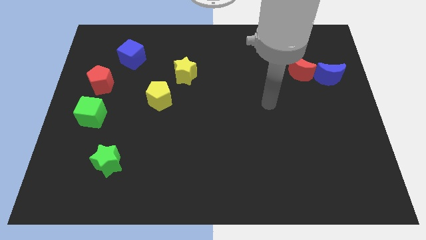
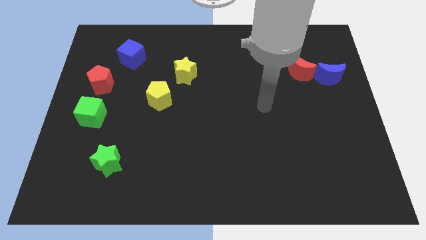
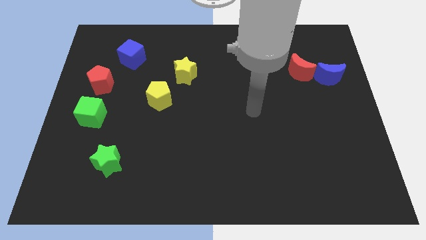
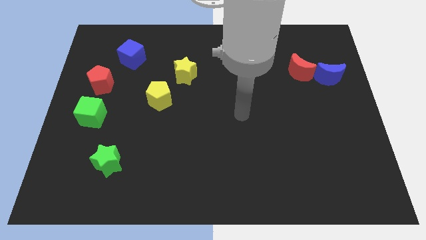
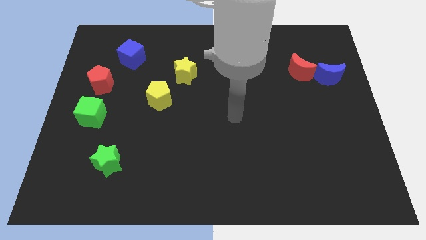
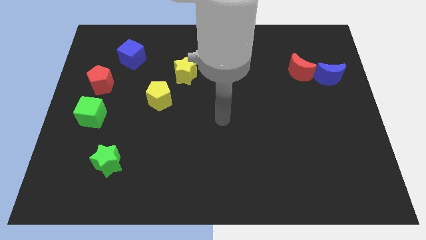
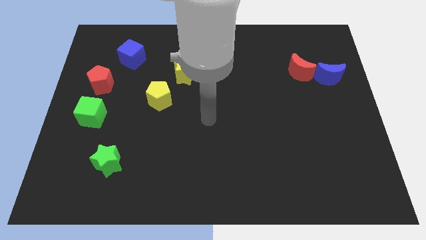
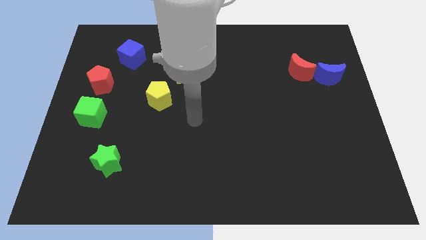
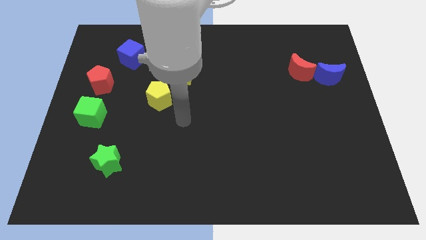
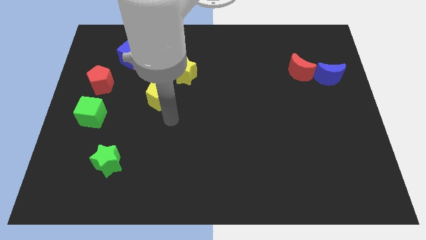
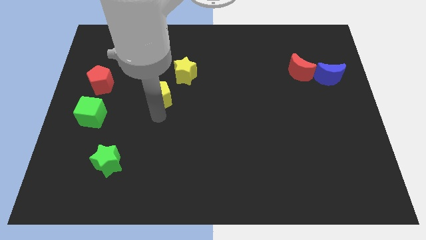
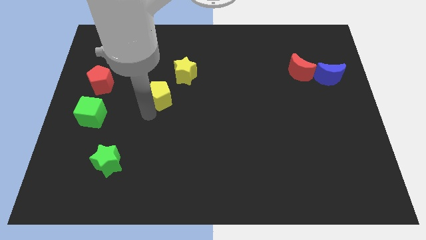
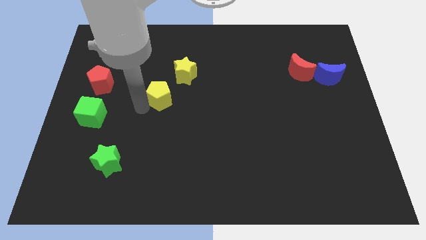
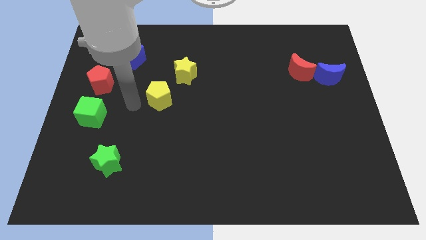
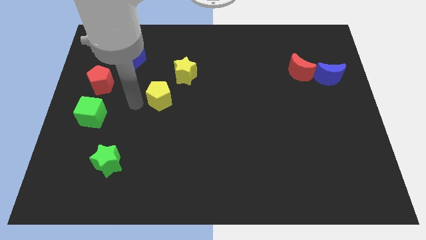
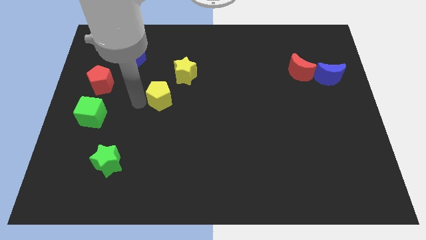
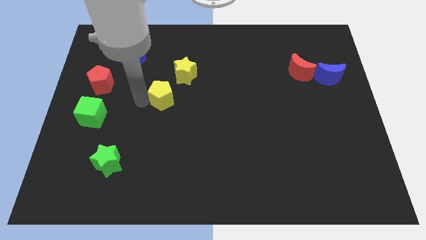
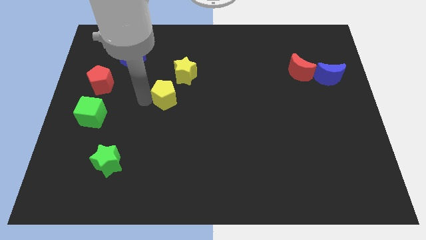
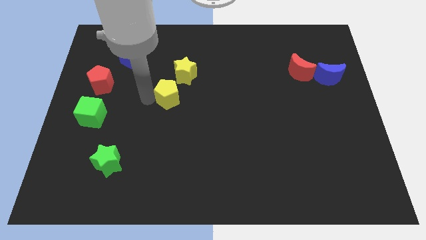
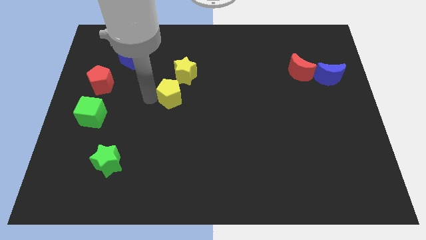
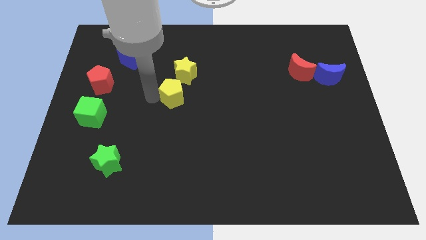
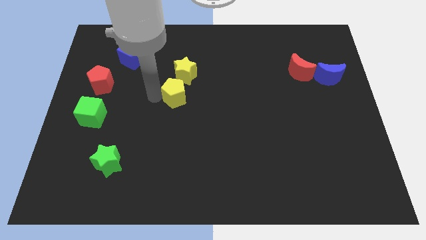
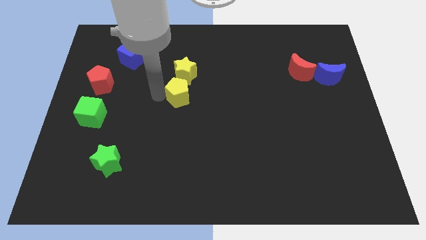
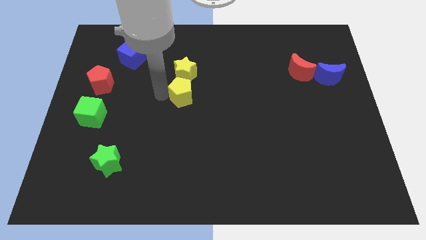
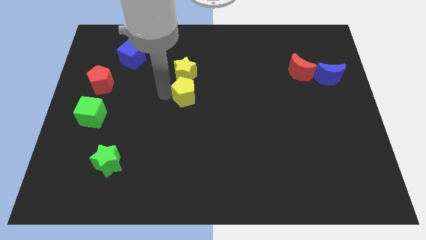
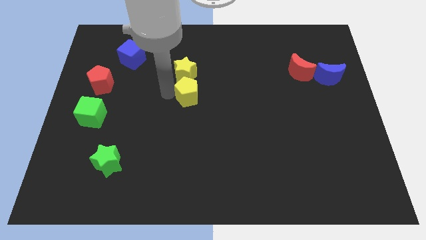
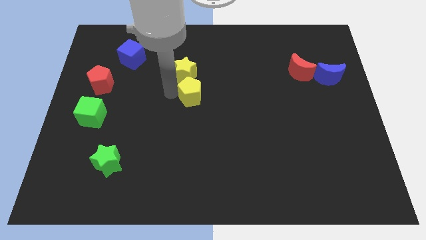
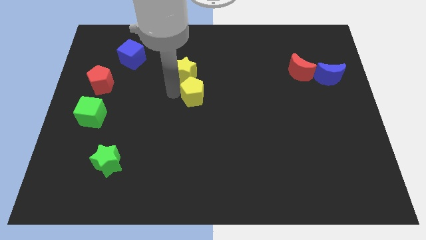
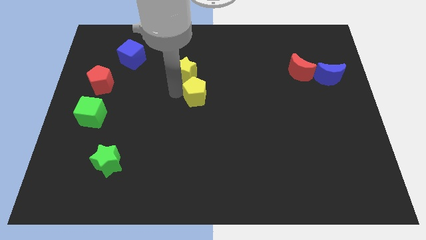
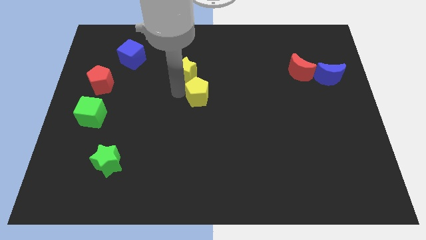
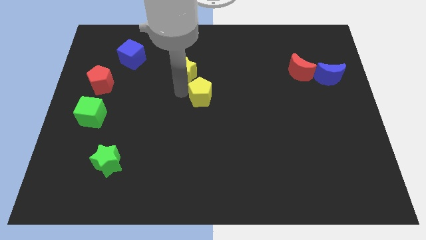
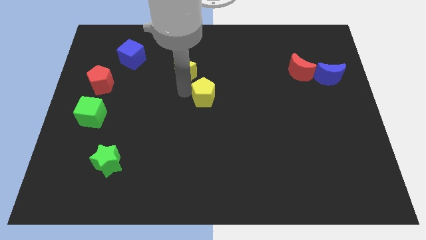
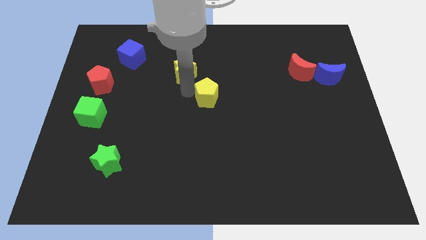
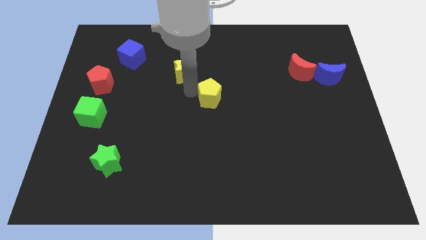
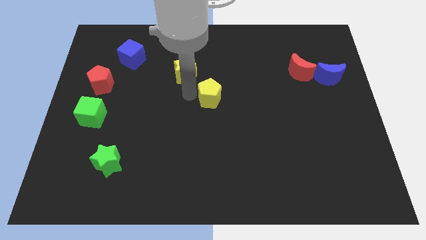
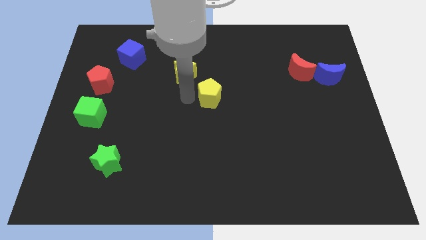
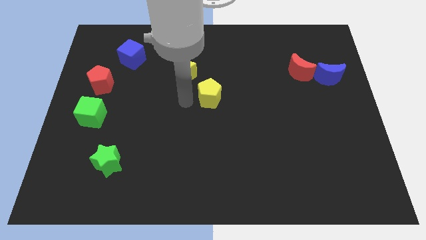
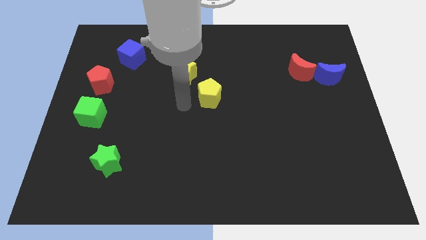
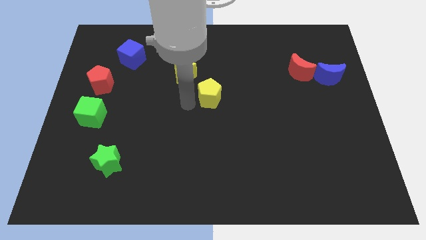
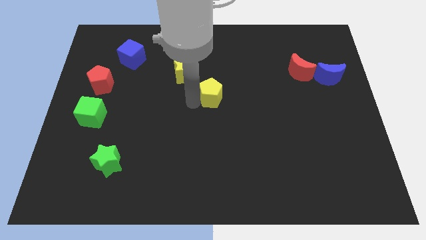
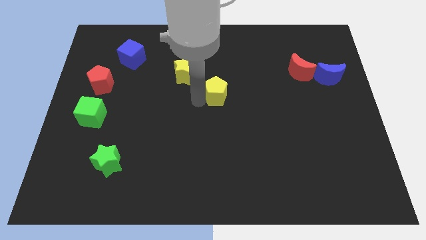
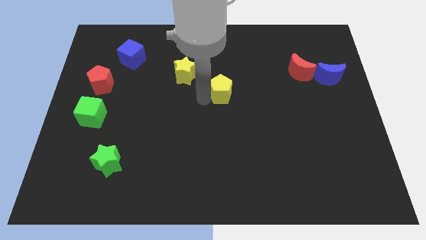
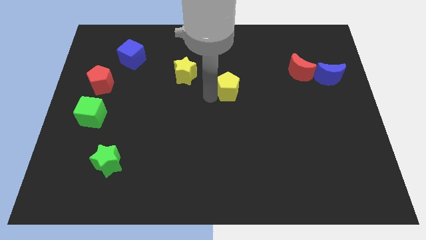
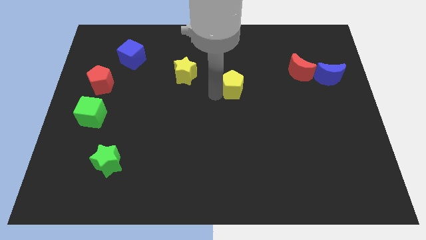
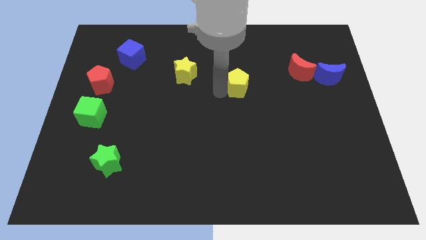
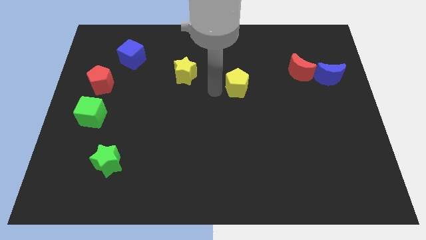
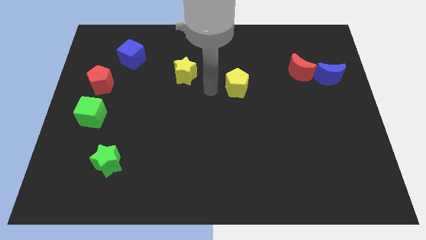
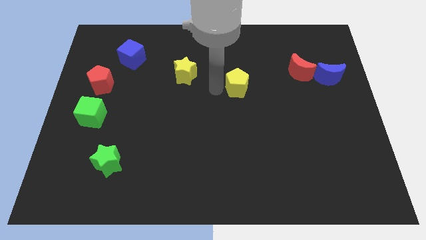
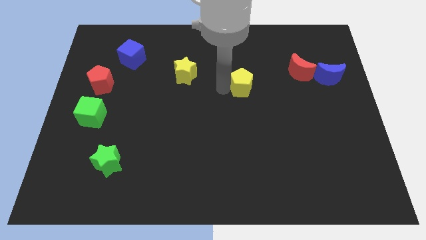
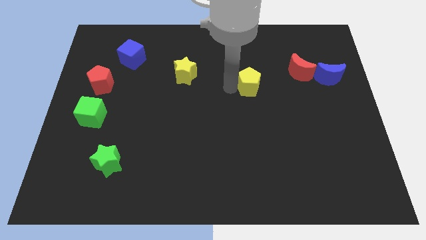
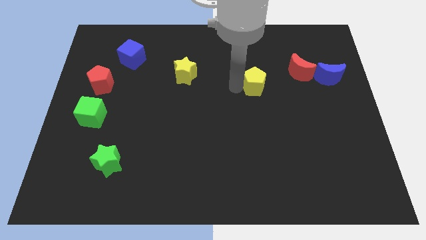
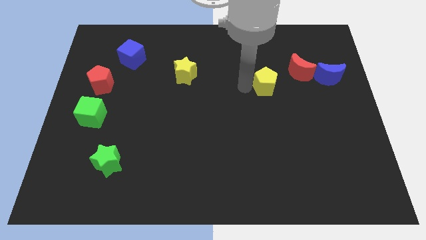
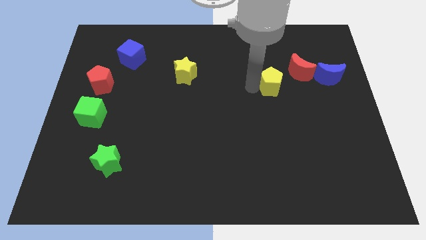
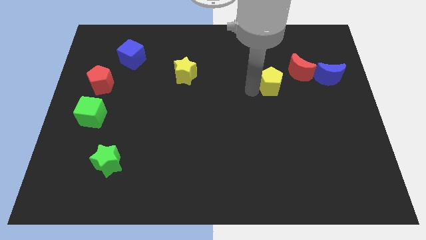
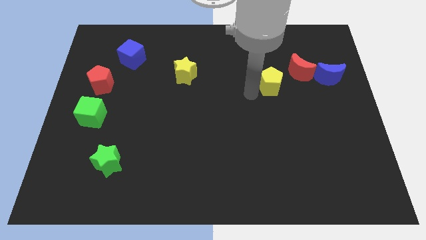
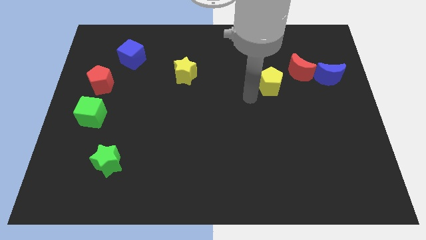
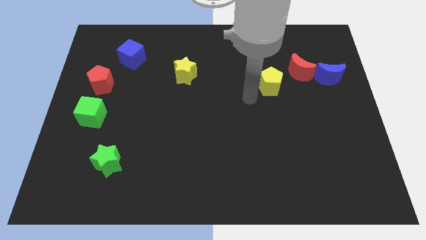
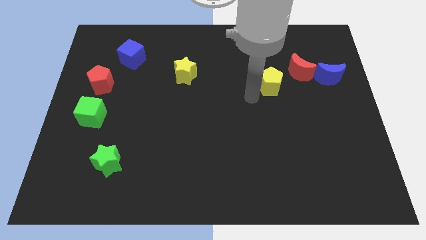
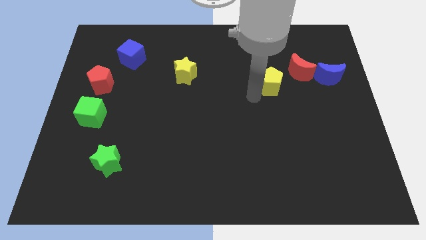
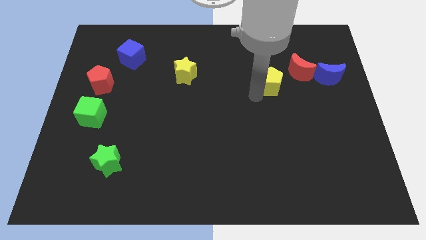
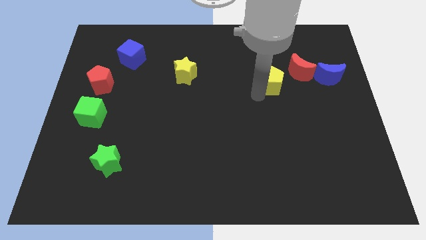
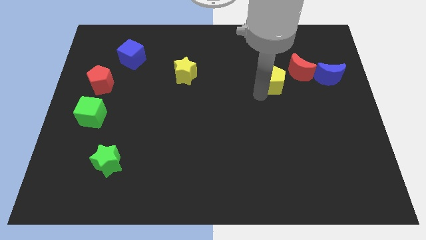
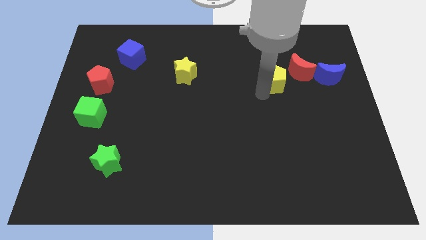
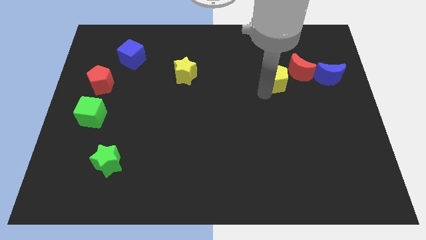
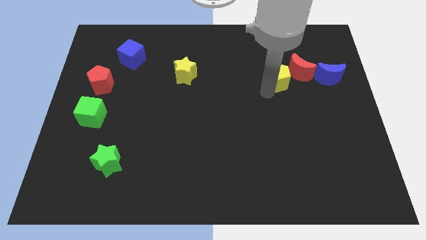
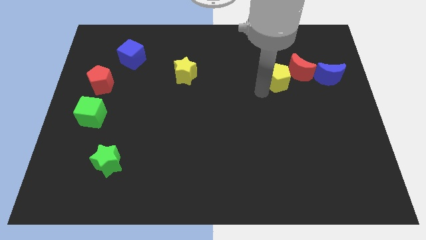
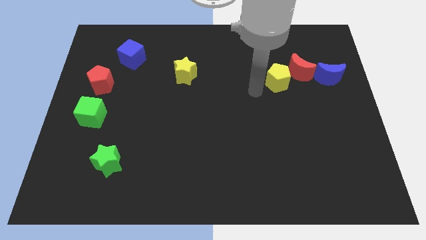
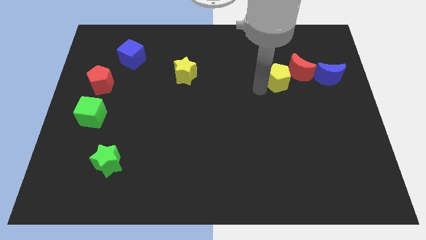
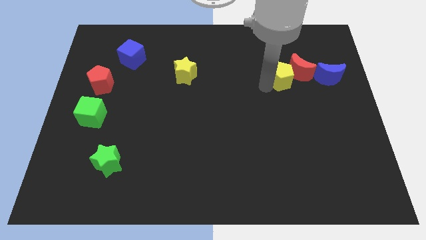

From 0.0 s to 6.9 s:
push the yellow pentagon next to the red moon
